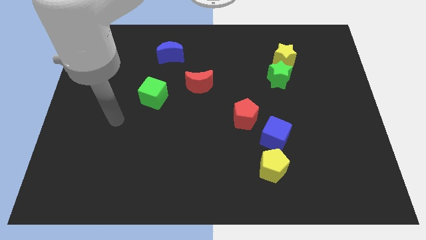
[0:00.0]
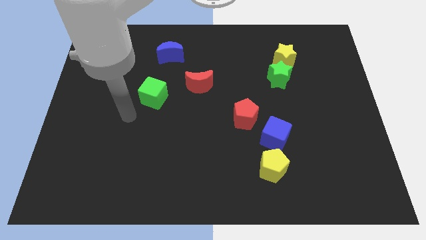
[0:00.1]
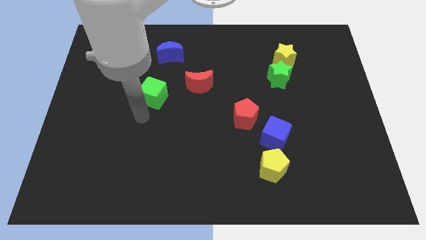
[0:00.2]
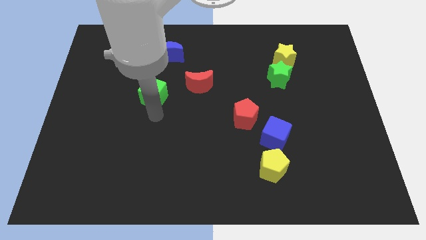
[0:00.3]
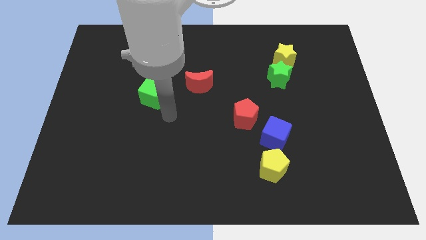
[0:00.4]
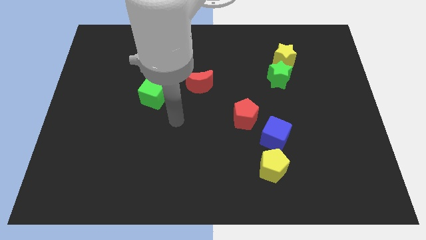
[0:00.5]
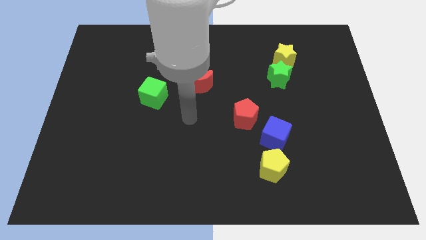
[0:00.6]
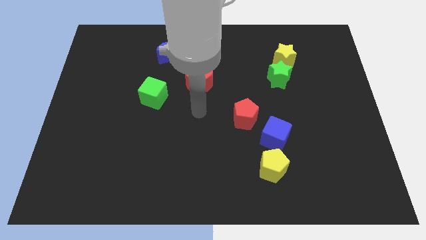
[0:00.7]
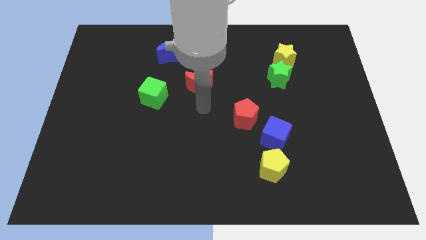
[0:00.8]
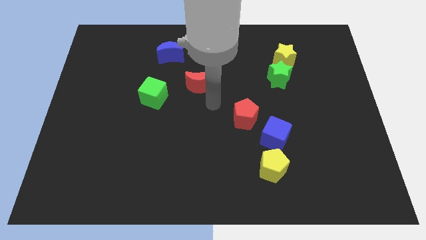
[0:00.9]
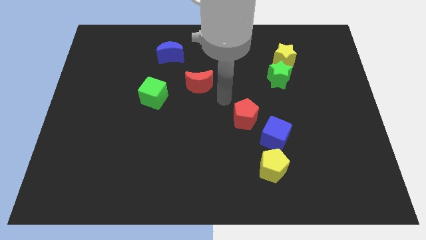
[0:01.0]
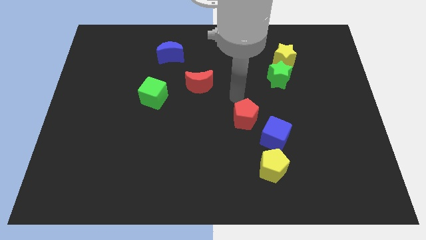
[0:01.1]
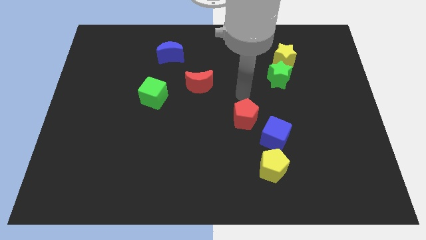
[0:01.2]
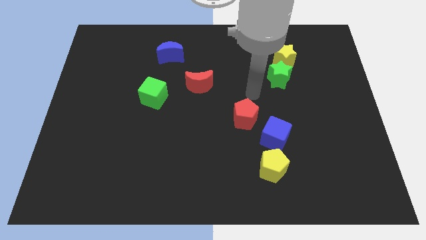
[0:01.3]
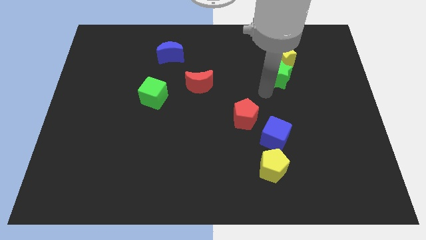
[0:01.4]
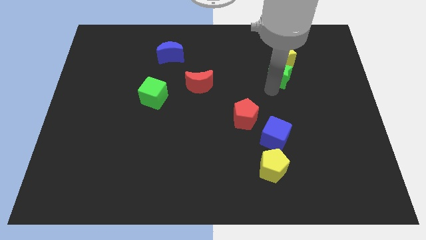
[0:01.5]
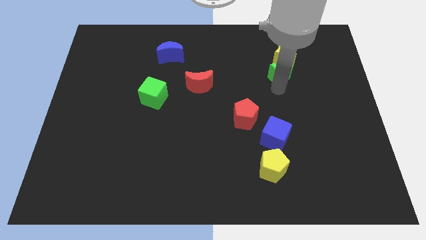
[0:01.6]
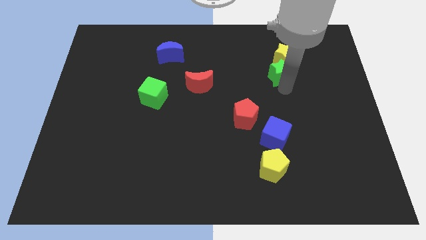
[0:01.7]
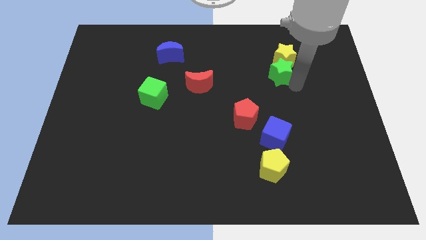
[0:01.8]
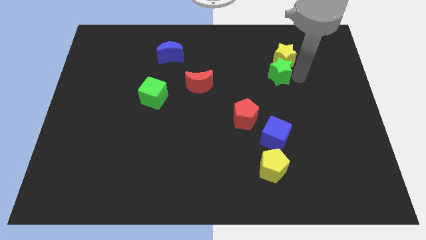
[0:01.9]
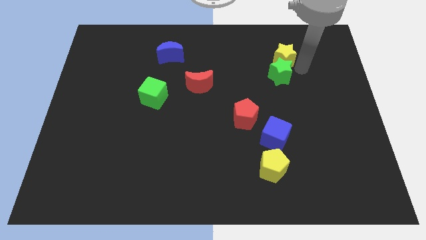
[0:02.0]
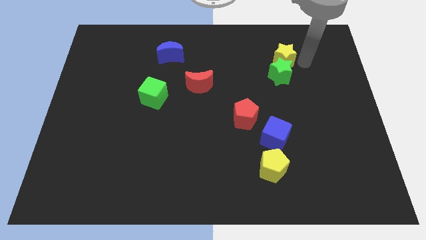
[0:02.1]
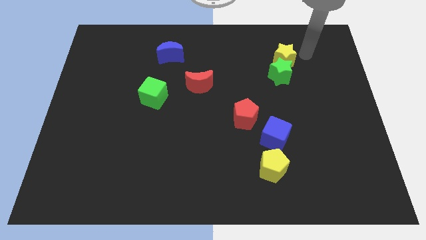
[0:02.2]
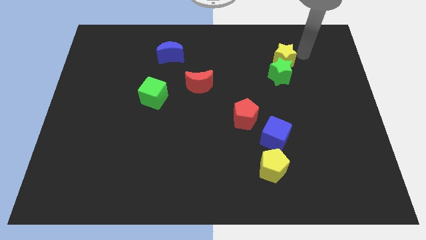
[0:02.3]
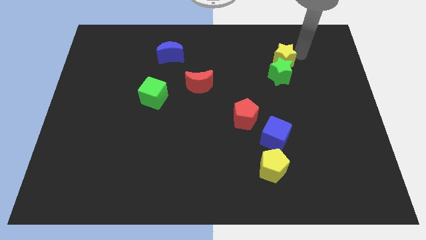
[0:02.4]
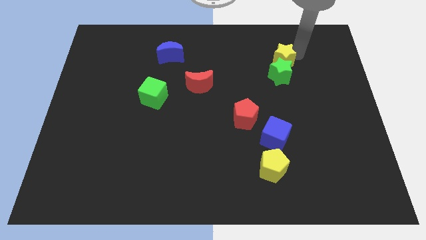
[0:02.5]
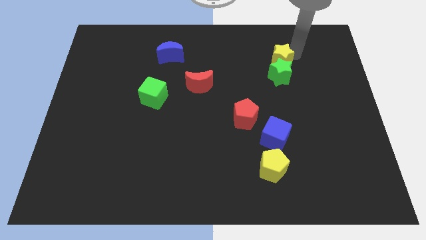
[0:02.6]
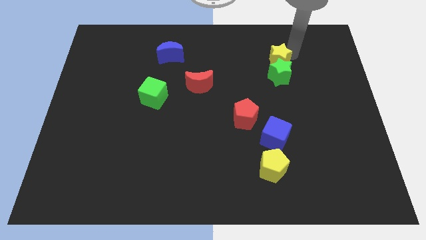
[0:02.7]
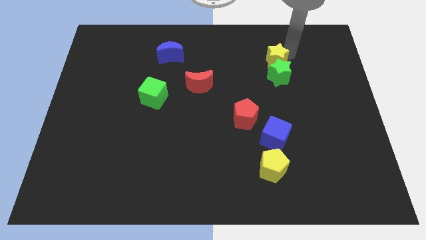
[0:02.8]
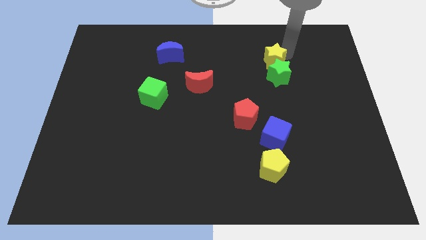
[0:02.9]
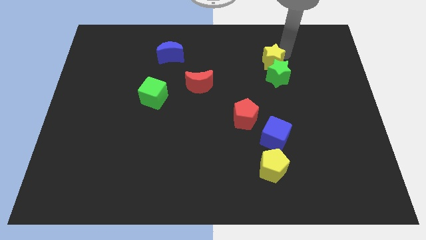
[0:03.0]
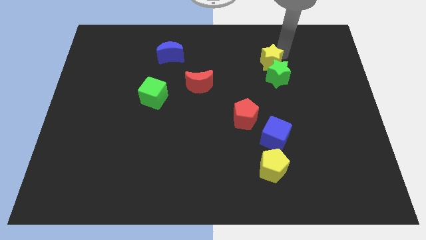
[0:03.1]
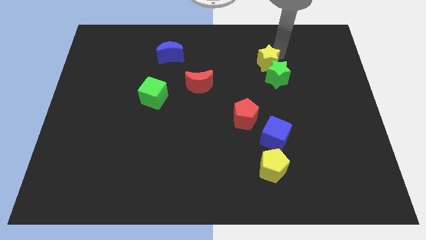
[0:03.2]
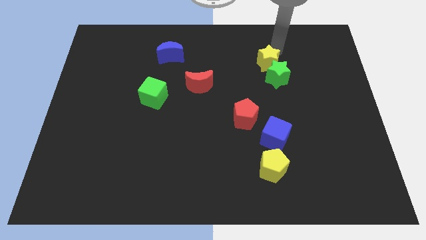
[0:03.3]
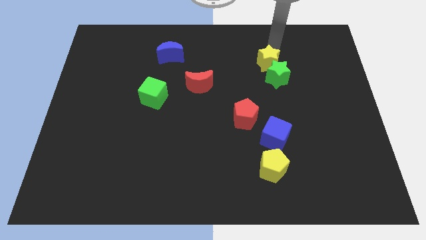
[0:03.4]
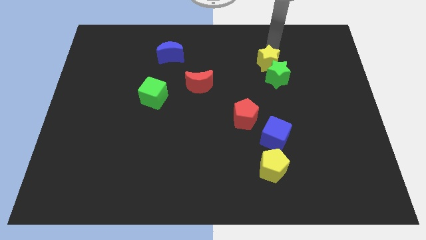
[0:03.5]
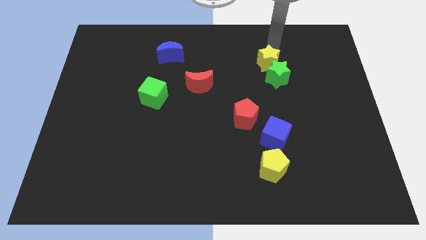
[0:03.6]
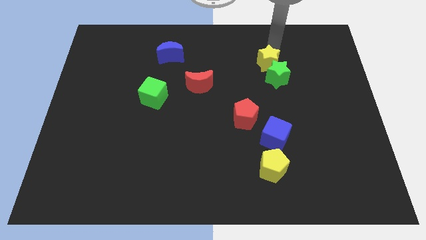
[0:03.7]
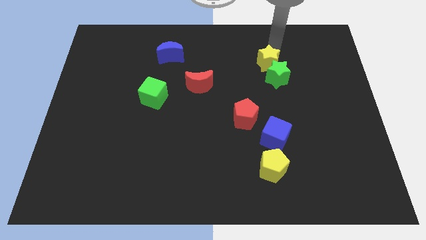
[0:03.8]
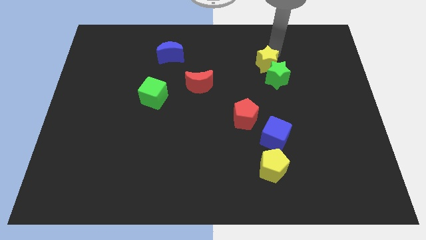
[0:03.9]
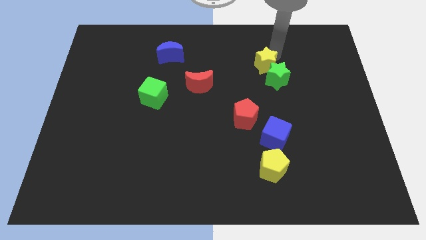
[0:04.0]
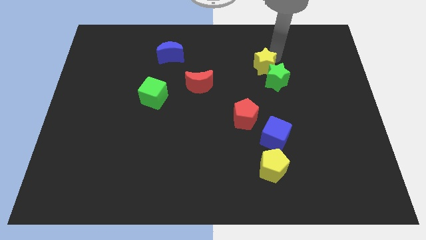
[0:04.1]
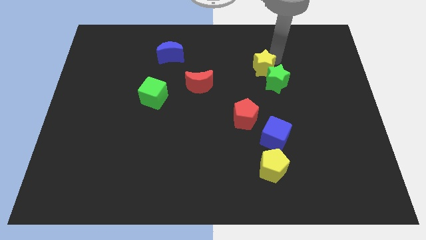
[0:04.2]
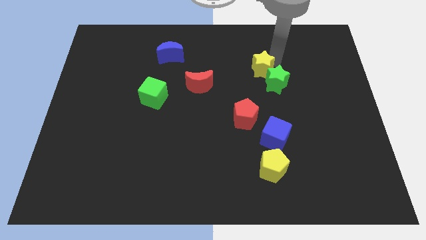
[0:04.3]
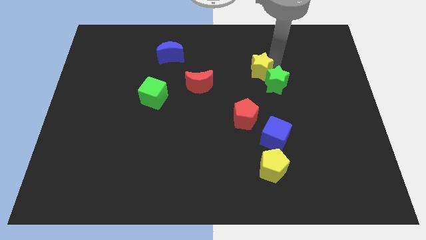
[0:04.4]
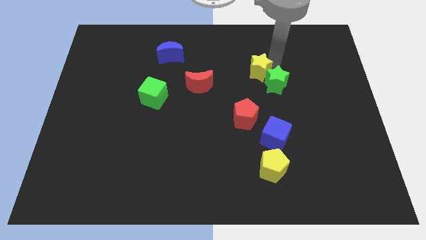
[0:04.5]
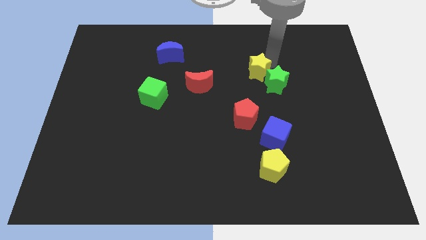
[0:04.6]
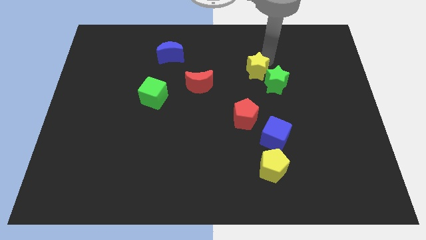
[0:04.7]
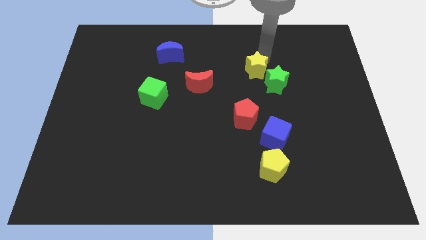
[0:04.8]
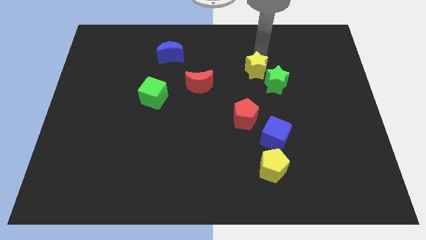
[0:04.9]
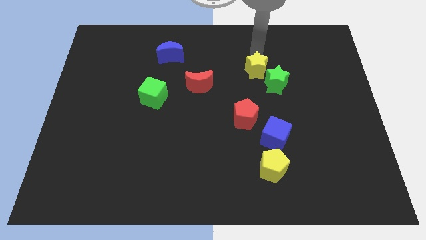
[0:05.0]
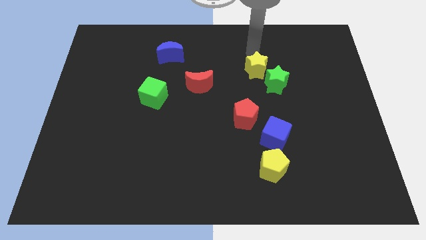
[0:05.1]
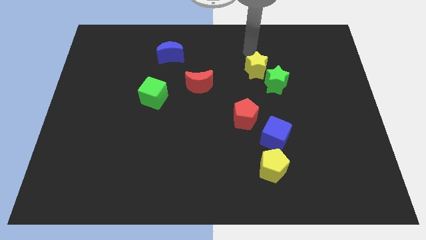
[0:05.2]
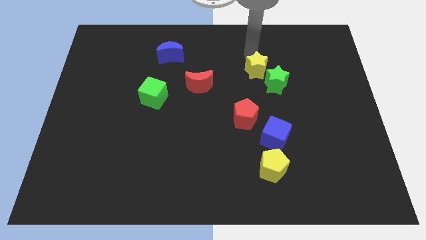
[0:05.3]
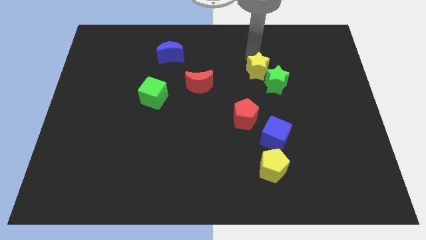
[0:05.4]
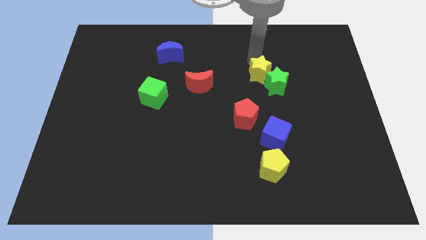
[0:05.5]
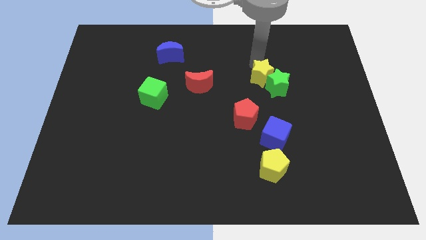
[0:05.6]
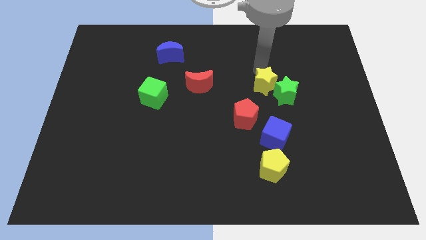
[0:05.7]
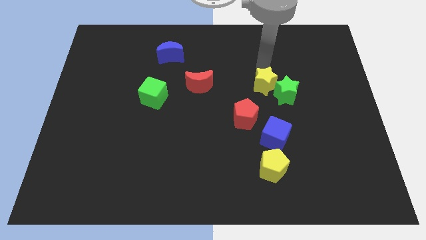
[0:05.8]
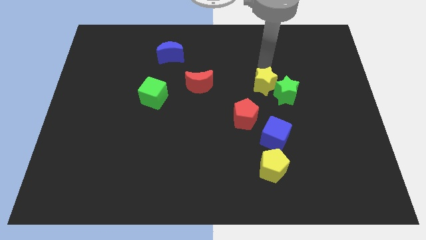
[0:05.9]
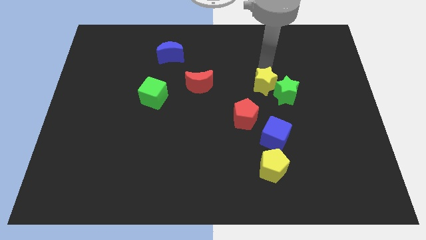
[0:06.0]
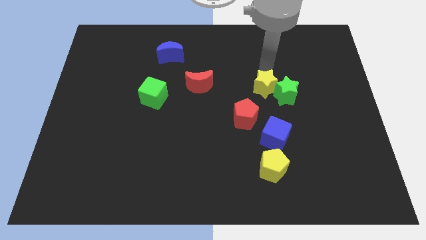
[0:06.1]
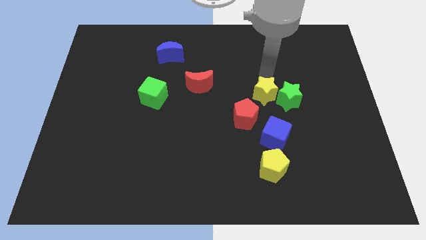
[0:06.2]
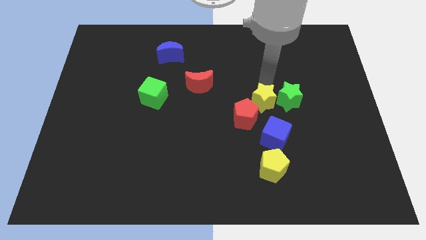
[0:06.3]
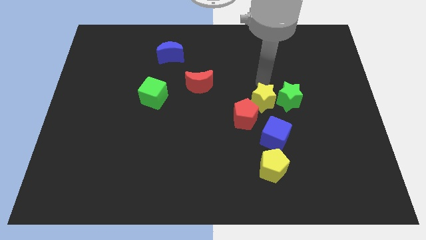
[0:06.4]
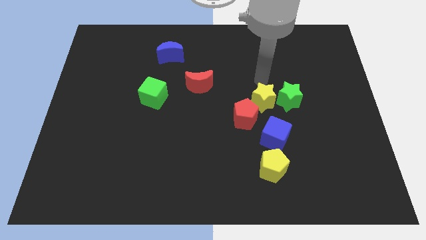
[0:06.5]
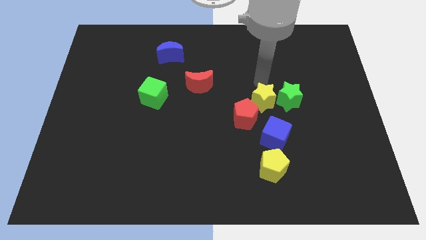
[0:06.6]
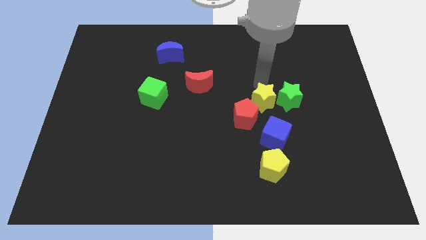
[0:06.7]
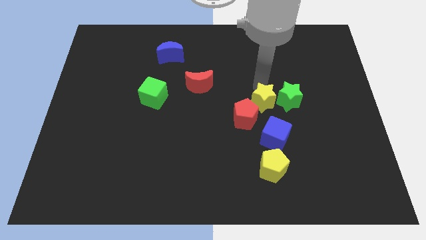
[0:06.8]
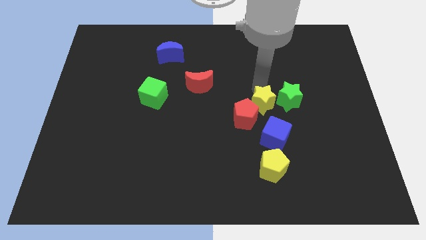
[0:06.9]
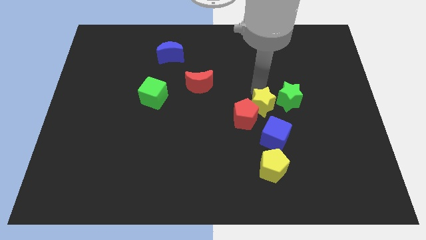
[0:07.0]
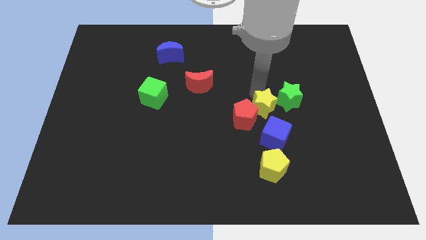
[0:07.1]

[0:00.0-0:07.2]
slide the yellow star above the yellow pentagon

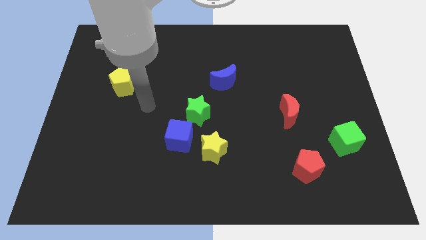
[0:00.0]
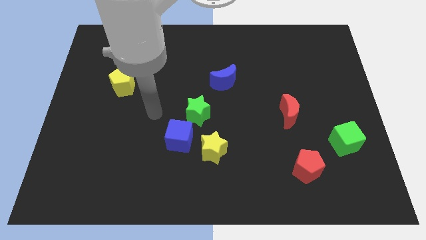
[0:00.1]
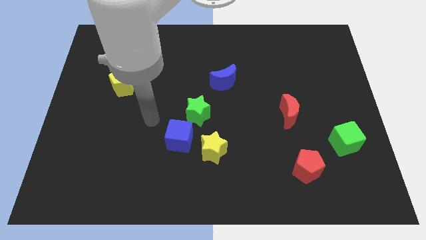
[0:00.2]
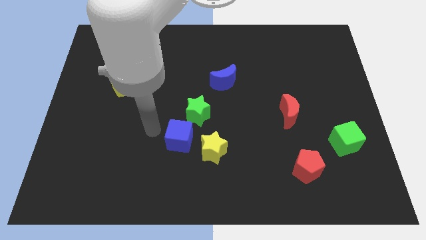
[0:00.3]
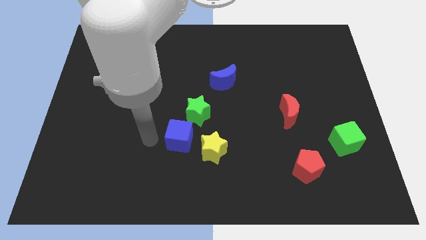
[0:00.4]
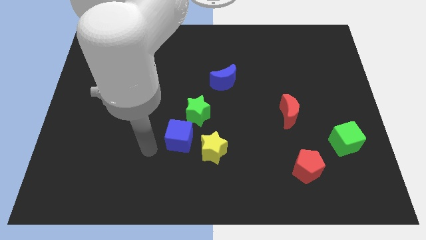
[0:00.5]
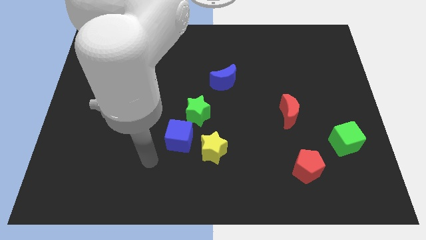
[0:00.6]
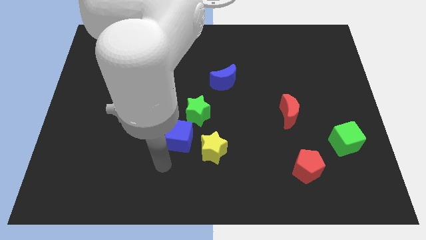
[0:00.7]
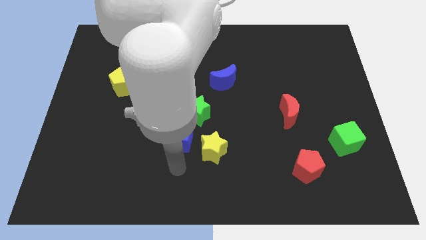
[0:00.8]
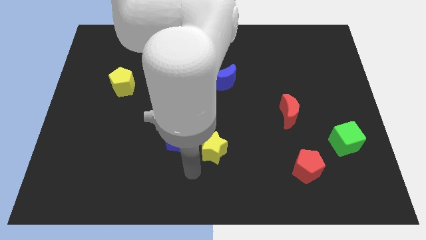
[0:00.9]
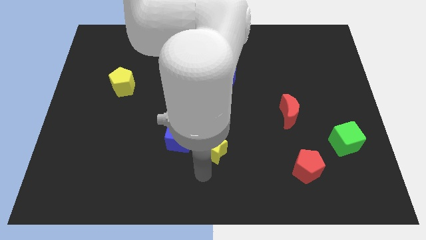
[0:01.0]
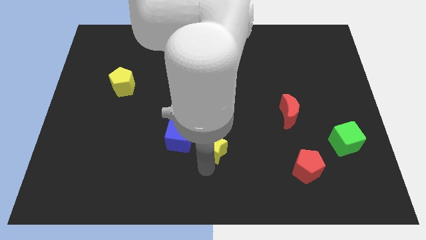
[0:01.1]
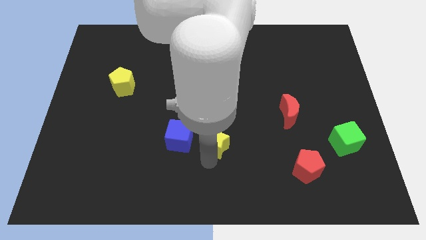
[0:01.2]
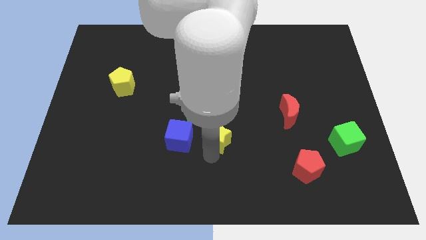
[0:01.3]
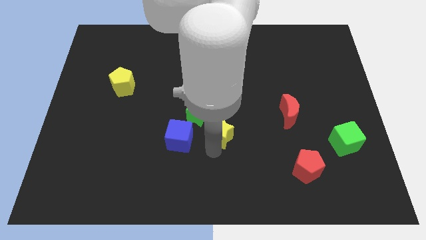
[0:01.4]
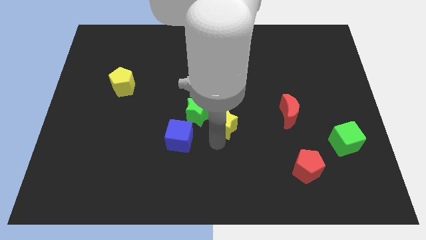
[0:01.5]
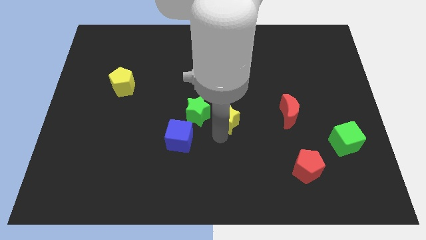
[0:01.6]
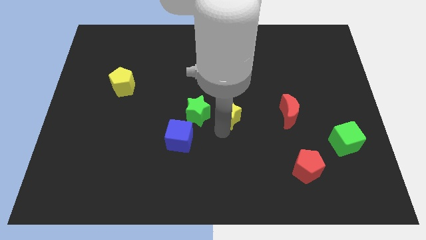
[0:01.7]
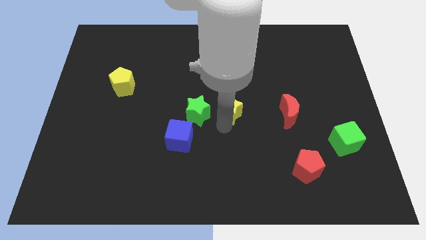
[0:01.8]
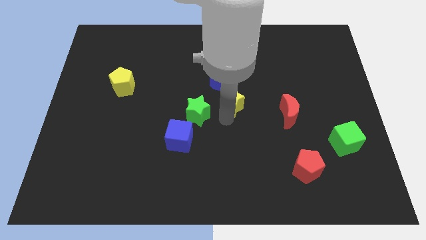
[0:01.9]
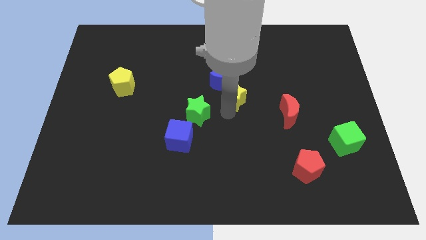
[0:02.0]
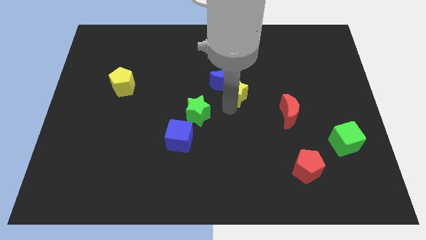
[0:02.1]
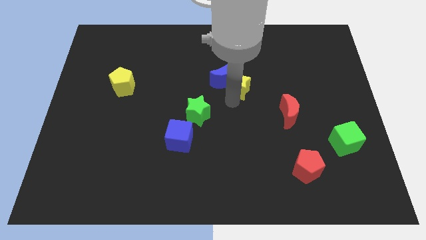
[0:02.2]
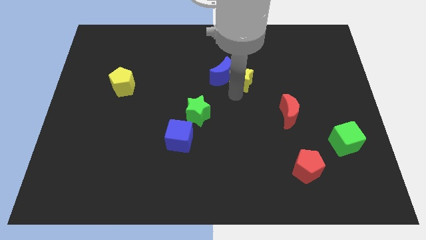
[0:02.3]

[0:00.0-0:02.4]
push the yellow star to the top right side of the blue moon
